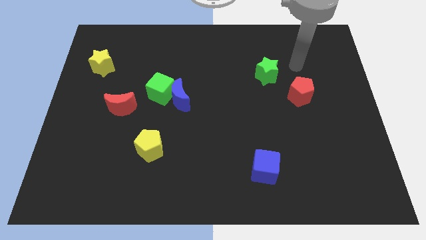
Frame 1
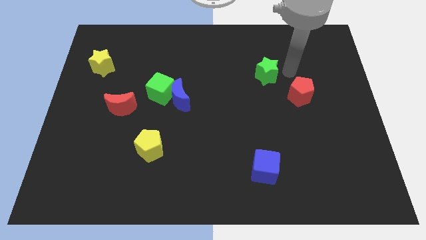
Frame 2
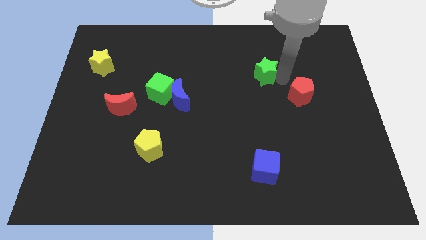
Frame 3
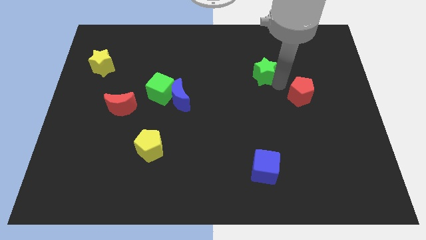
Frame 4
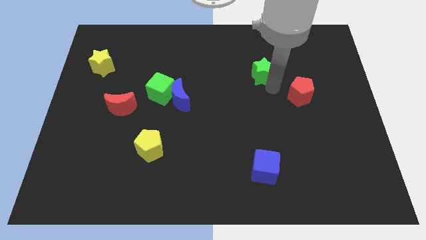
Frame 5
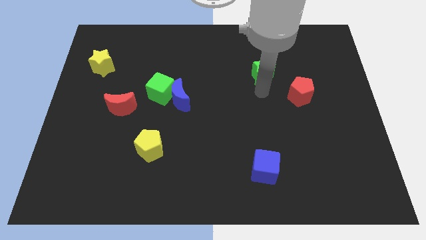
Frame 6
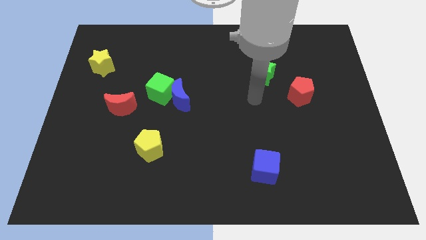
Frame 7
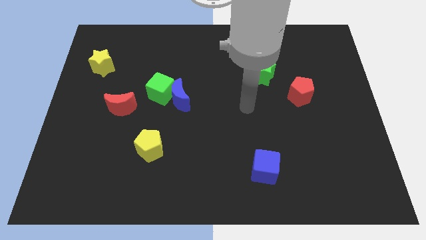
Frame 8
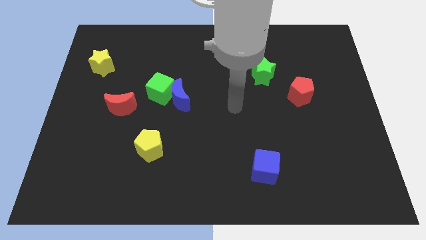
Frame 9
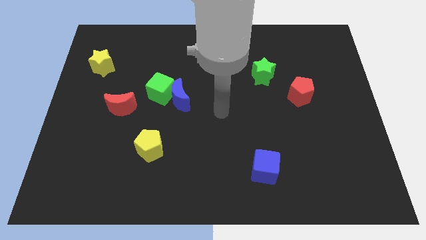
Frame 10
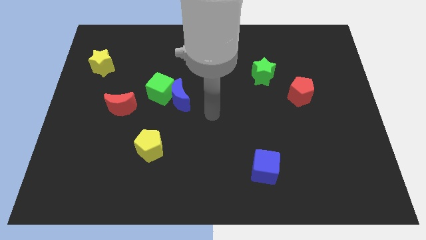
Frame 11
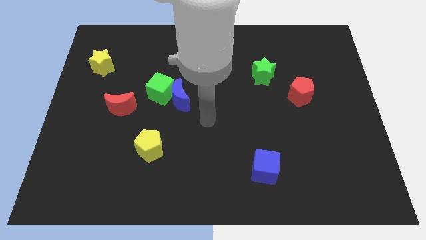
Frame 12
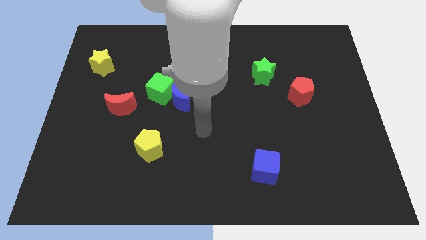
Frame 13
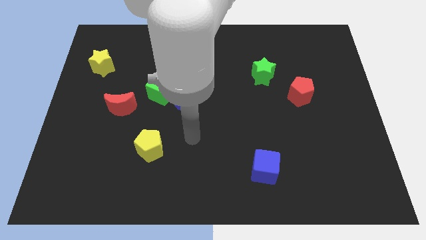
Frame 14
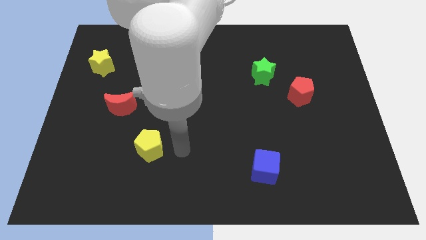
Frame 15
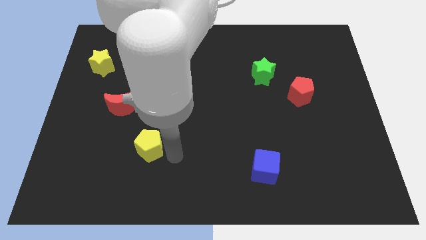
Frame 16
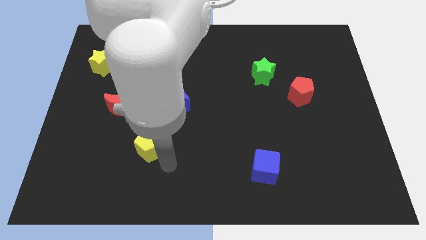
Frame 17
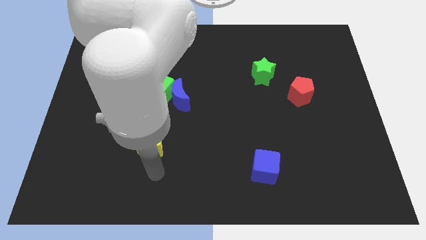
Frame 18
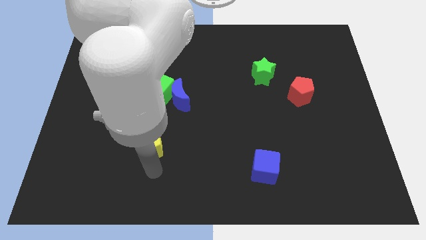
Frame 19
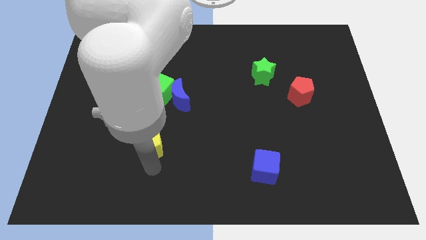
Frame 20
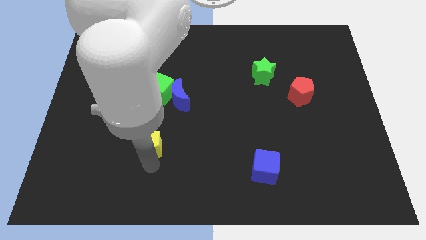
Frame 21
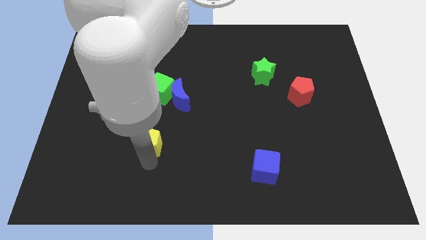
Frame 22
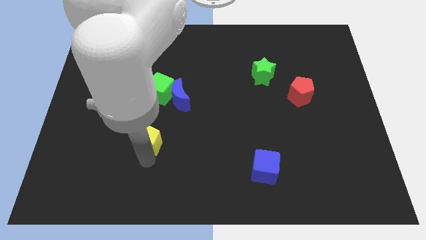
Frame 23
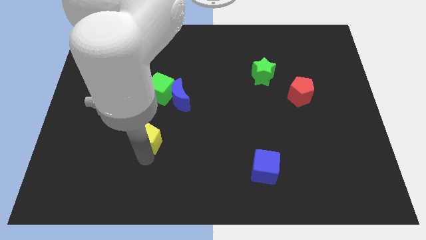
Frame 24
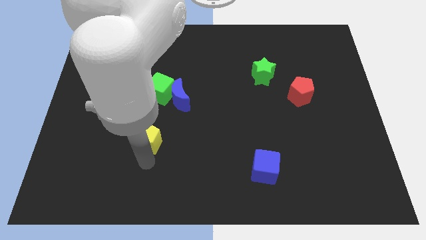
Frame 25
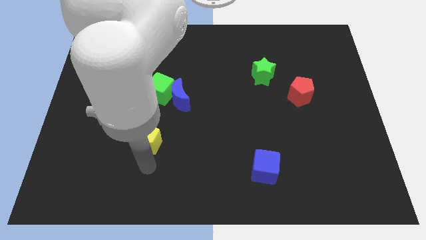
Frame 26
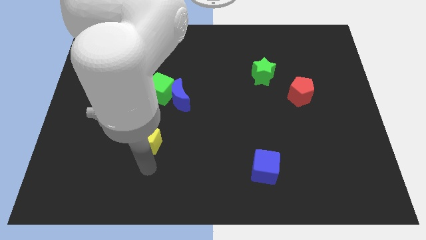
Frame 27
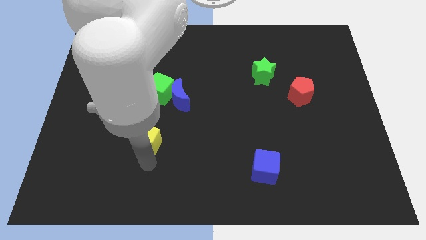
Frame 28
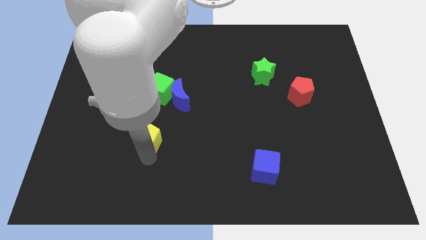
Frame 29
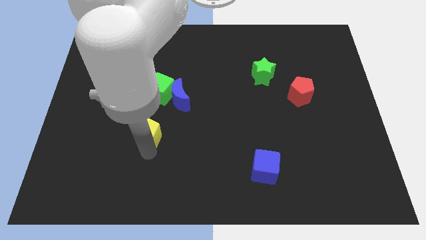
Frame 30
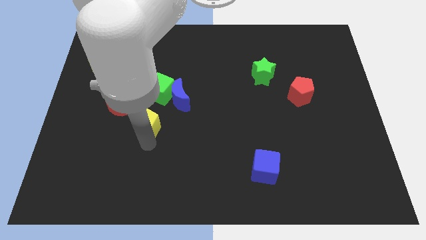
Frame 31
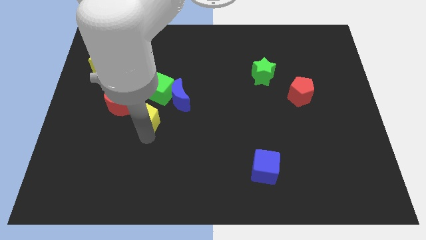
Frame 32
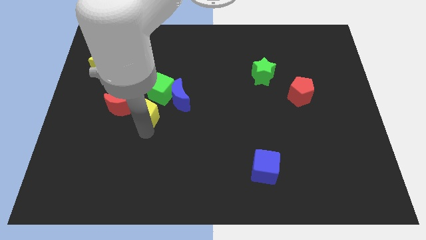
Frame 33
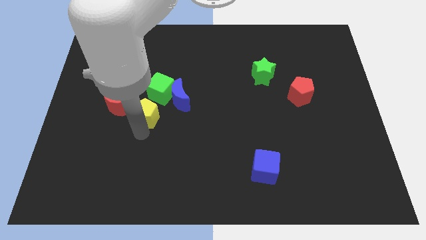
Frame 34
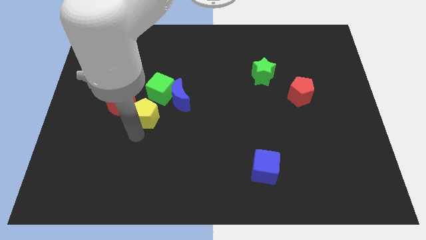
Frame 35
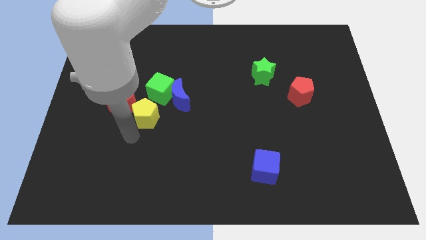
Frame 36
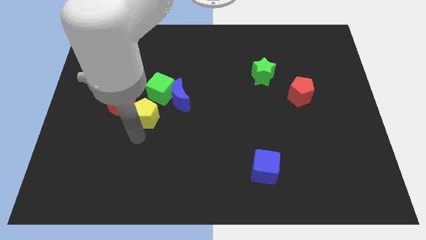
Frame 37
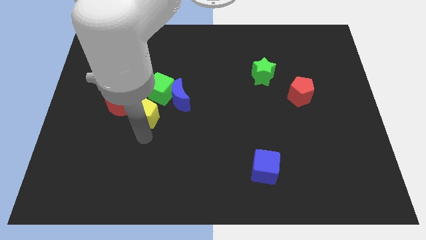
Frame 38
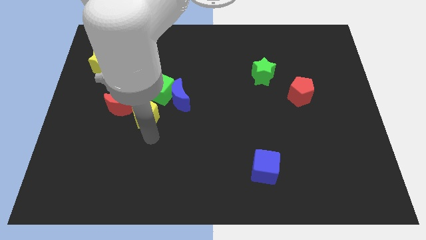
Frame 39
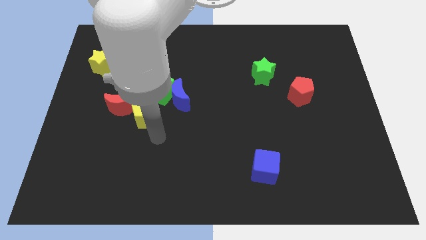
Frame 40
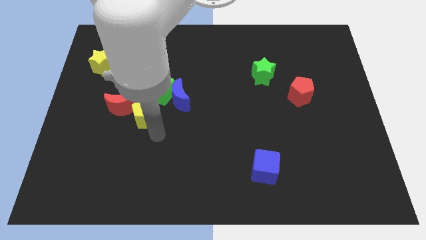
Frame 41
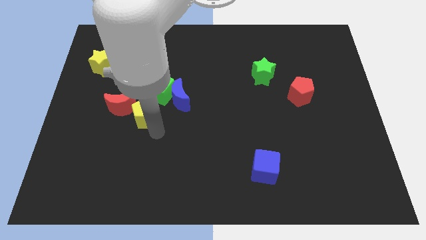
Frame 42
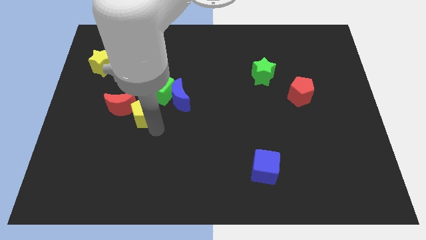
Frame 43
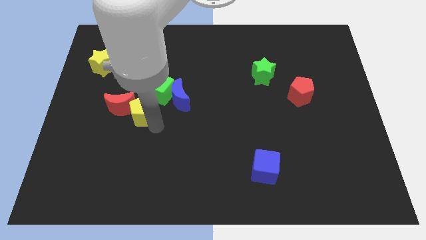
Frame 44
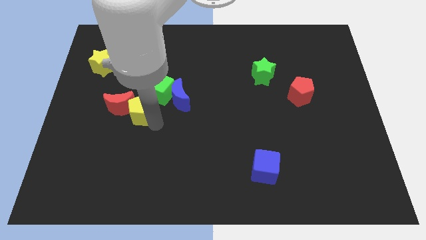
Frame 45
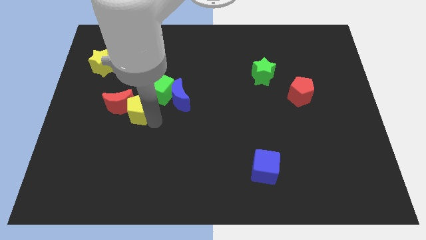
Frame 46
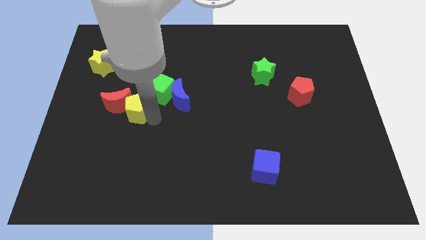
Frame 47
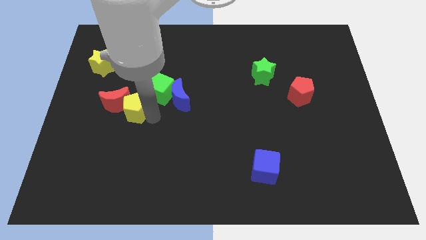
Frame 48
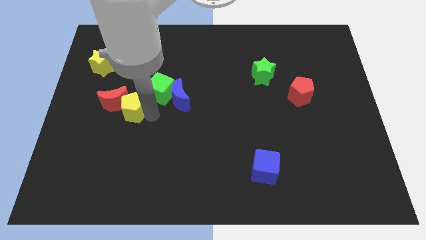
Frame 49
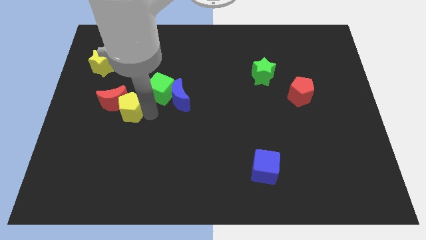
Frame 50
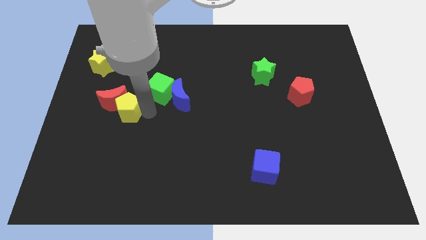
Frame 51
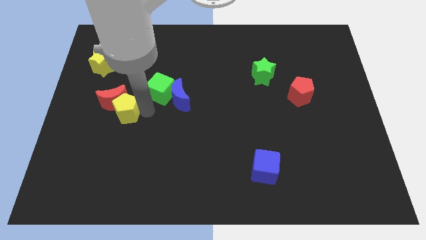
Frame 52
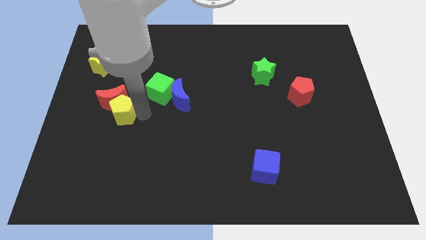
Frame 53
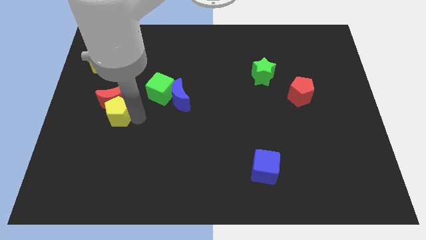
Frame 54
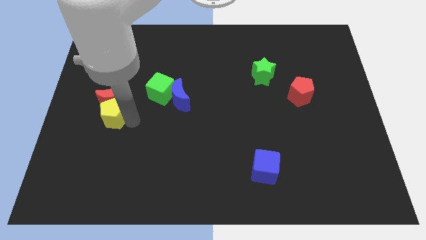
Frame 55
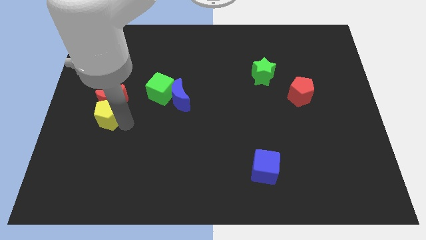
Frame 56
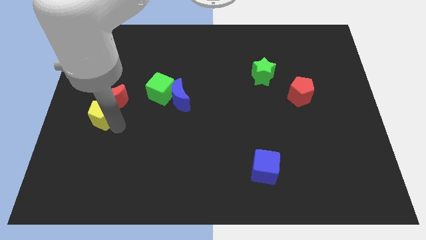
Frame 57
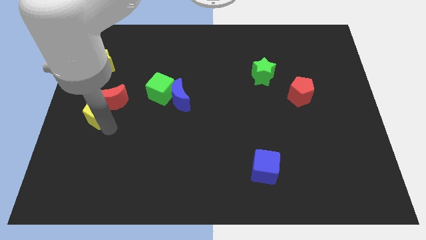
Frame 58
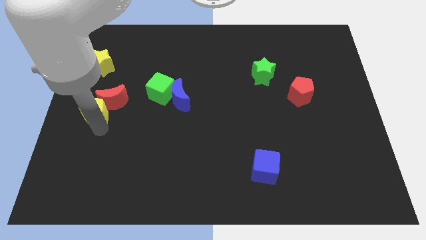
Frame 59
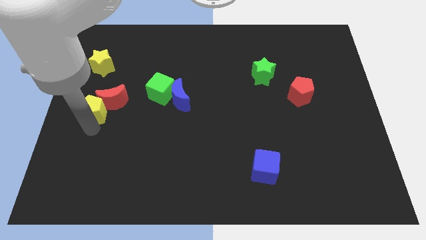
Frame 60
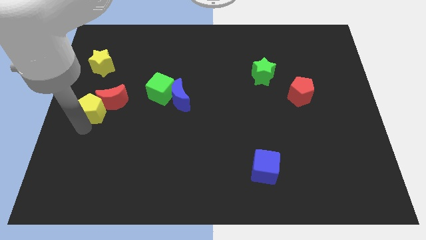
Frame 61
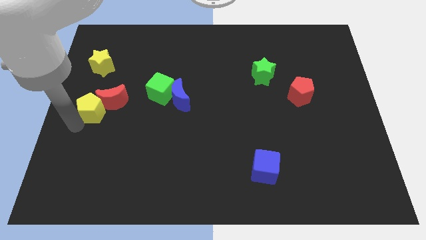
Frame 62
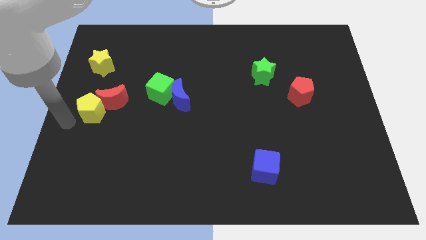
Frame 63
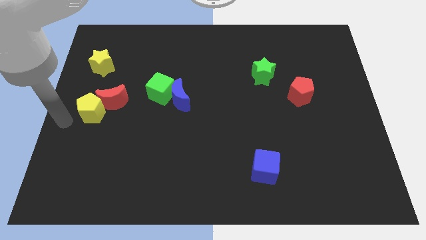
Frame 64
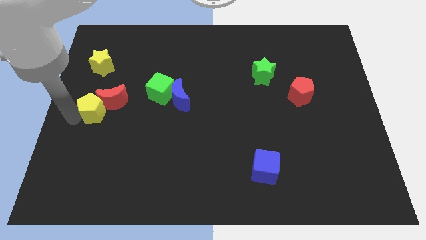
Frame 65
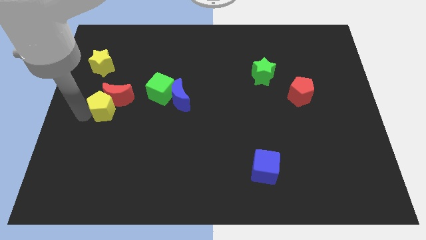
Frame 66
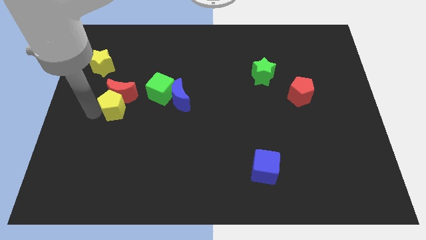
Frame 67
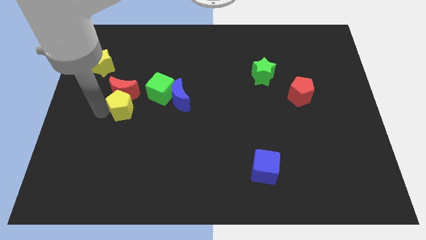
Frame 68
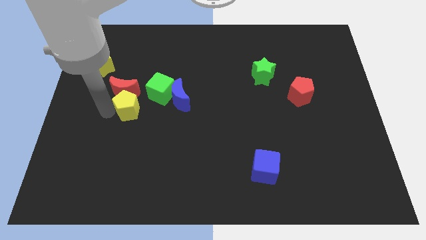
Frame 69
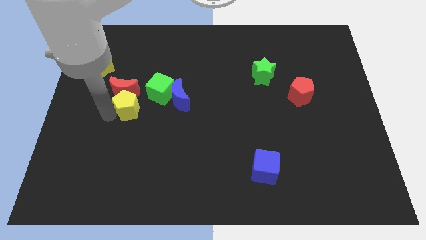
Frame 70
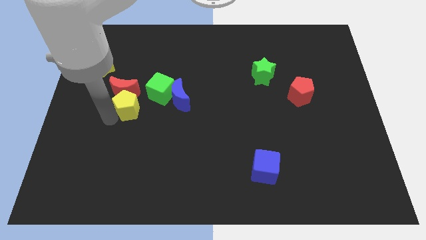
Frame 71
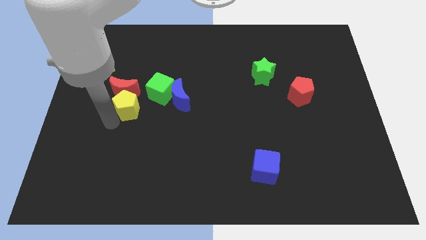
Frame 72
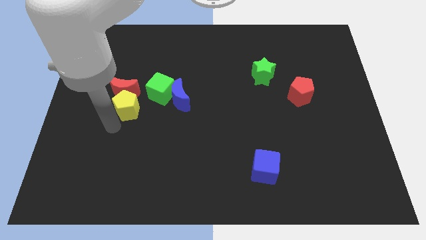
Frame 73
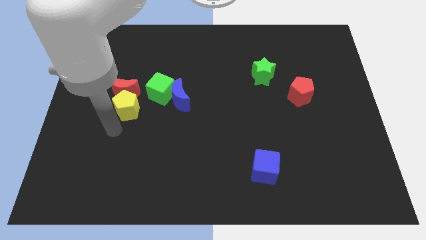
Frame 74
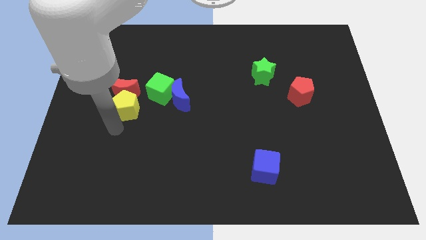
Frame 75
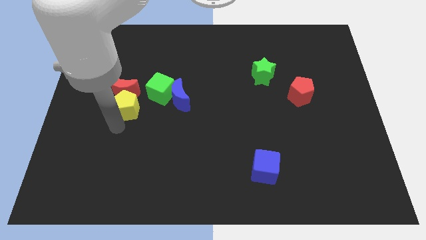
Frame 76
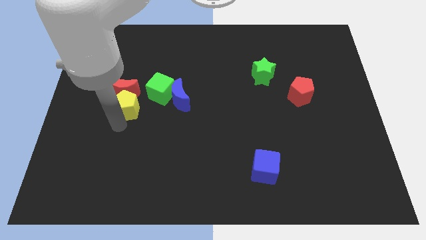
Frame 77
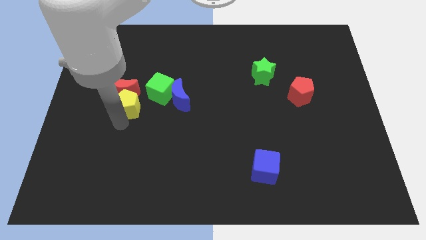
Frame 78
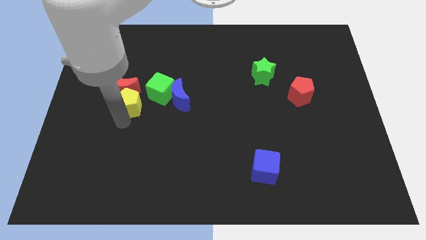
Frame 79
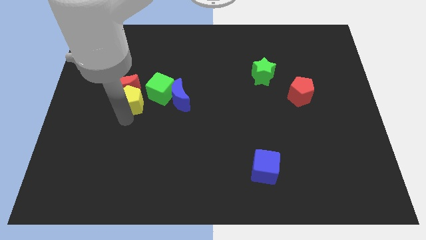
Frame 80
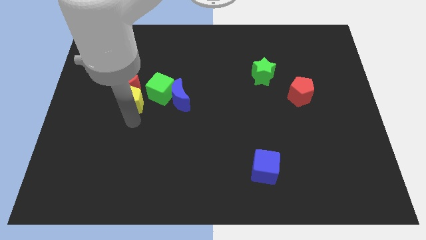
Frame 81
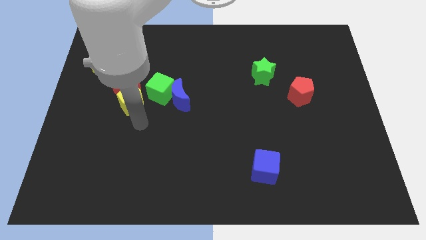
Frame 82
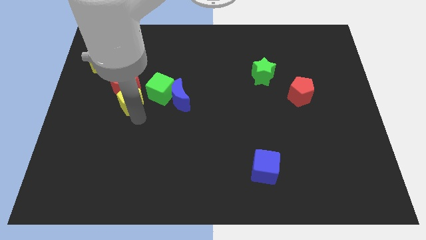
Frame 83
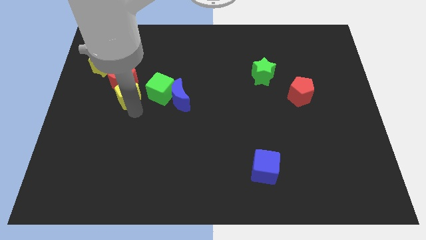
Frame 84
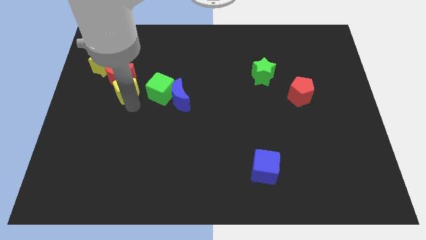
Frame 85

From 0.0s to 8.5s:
move the yellow pentagon diagonally down and to the right of the yellow star
